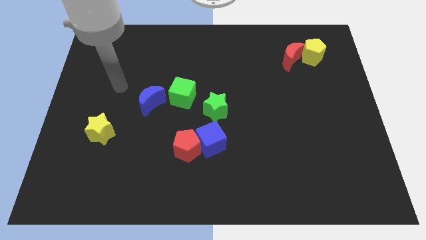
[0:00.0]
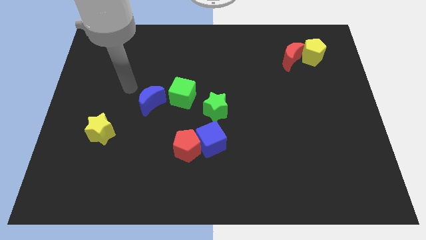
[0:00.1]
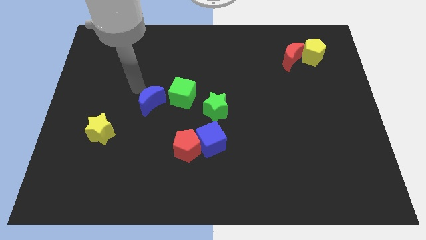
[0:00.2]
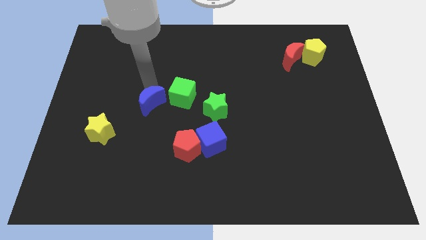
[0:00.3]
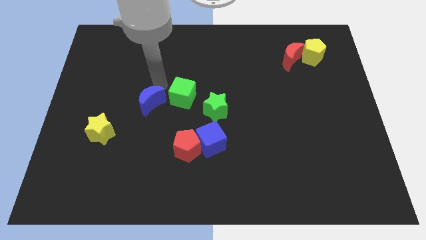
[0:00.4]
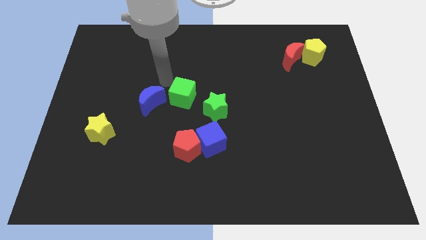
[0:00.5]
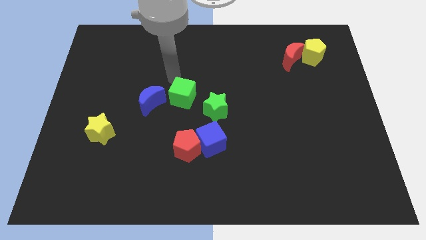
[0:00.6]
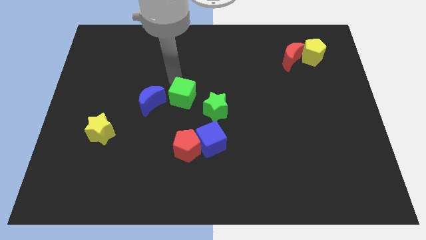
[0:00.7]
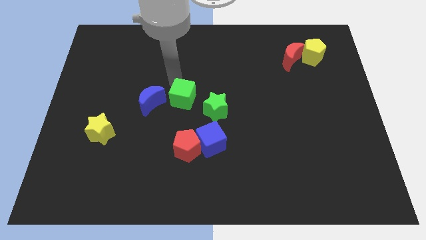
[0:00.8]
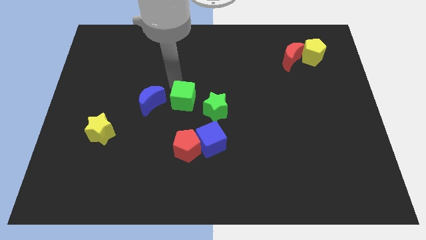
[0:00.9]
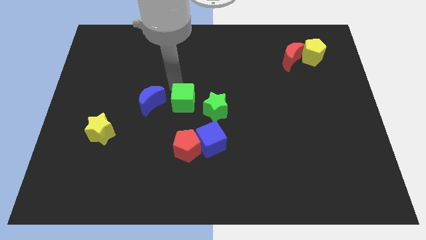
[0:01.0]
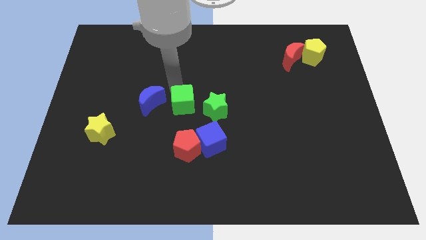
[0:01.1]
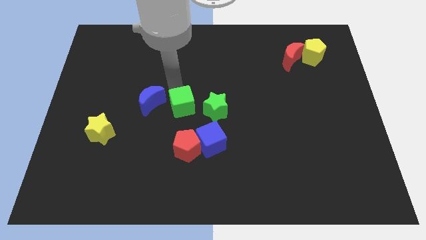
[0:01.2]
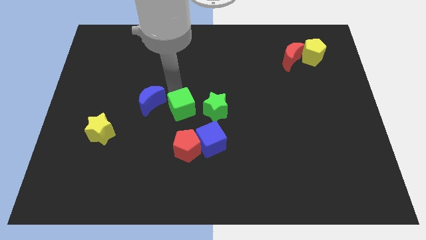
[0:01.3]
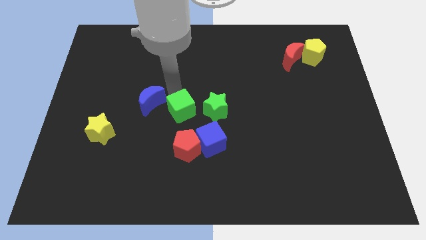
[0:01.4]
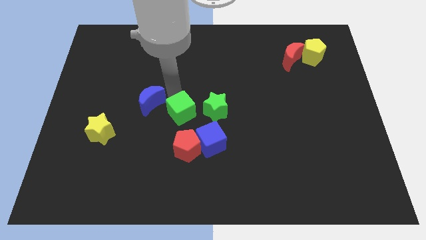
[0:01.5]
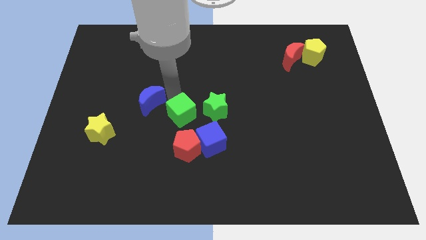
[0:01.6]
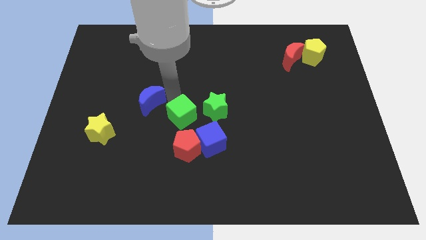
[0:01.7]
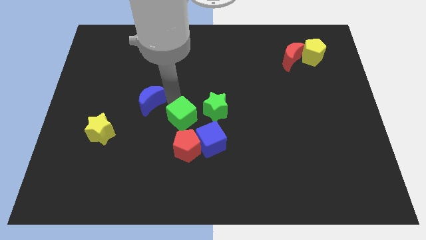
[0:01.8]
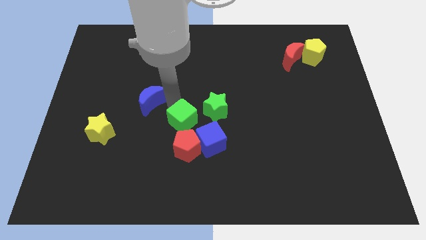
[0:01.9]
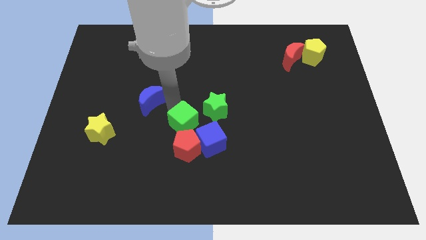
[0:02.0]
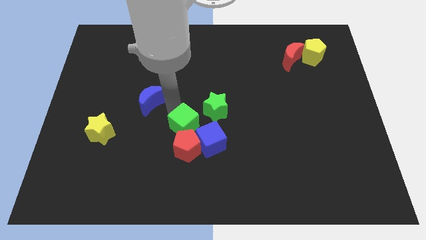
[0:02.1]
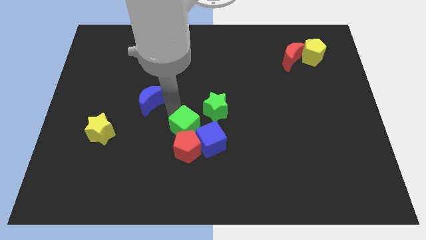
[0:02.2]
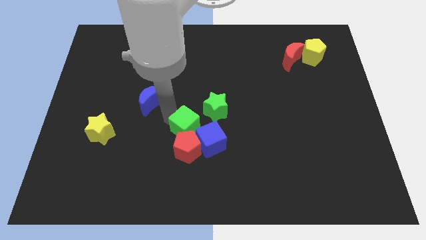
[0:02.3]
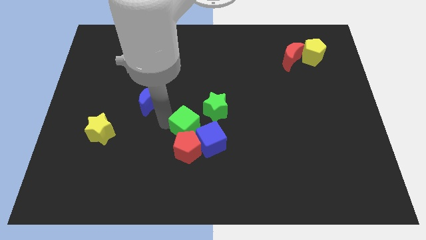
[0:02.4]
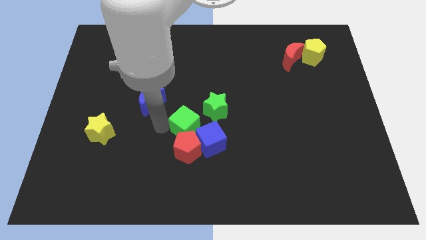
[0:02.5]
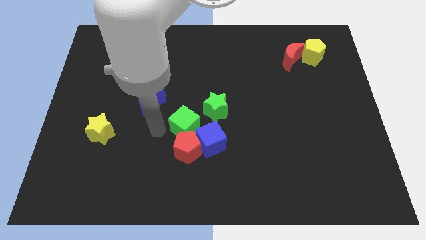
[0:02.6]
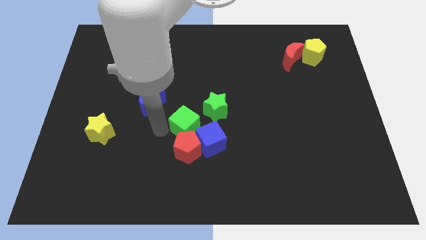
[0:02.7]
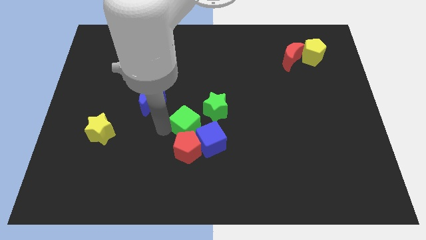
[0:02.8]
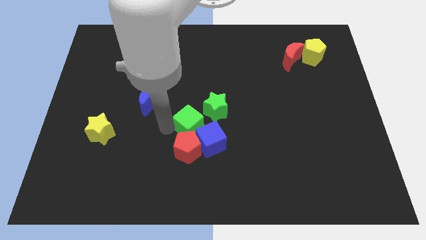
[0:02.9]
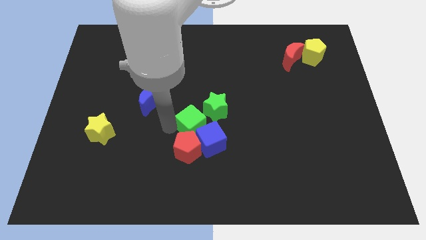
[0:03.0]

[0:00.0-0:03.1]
slide the green cube down and to the right diagonally a little

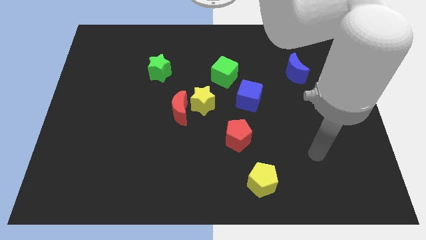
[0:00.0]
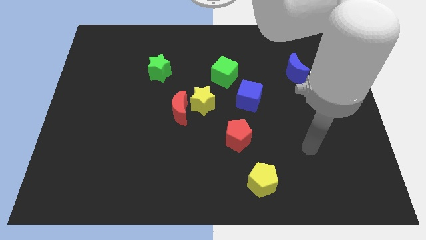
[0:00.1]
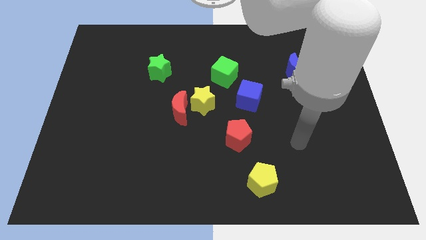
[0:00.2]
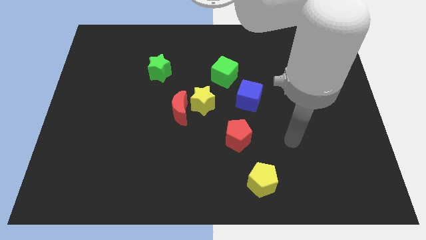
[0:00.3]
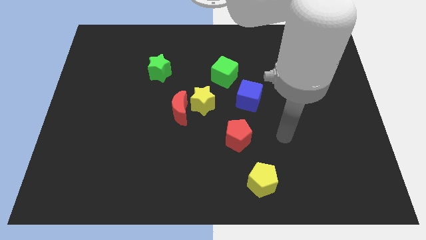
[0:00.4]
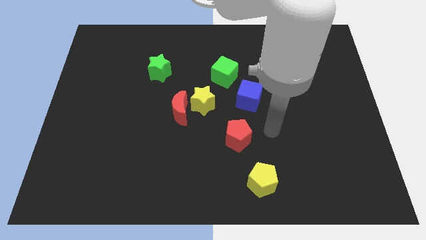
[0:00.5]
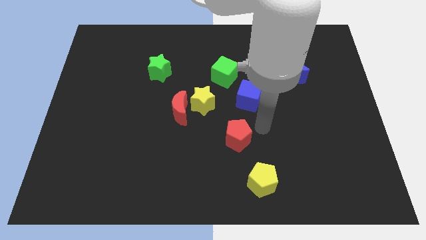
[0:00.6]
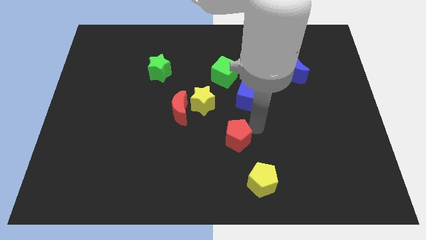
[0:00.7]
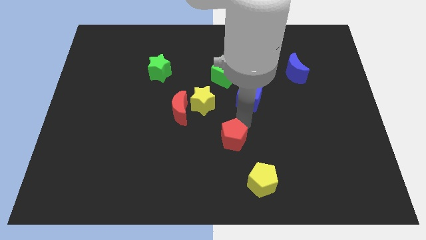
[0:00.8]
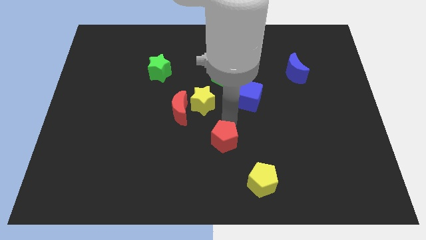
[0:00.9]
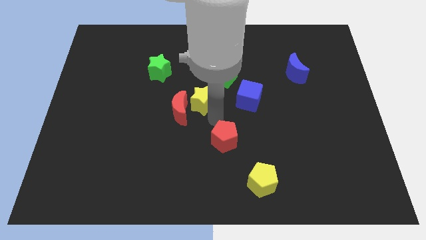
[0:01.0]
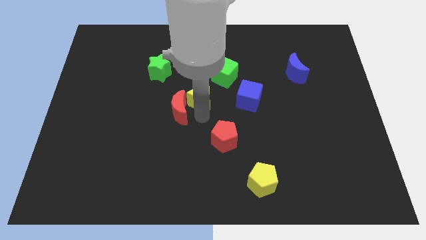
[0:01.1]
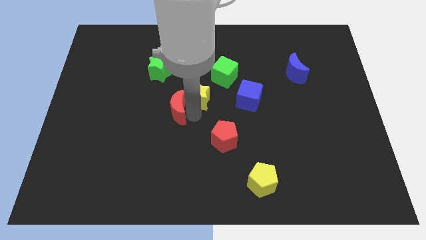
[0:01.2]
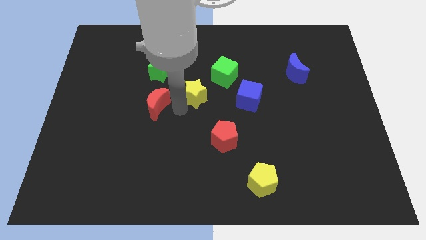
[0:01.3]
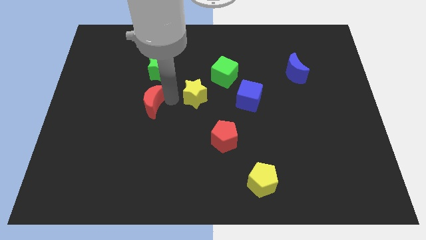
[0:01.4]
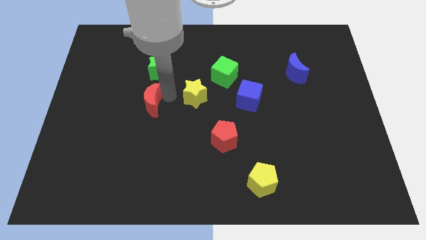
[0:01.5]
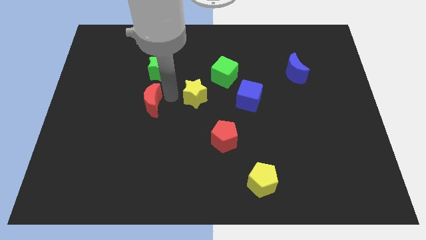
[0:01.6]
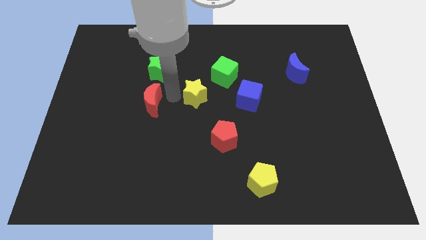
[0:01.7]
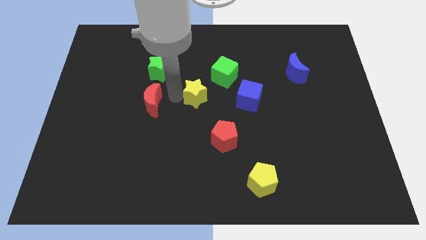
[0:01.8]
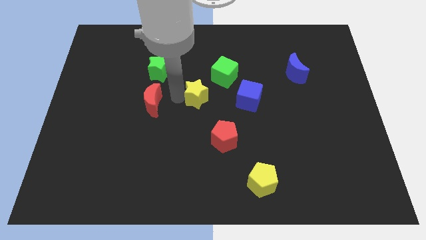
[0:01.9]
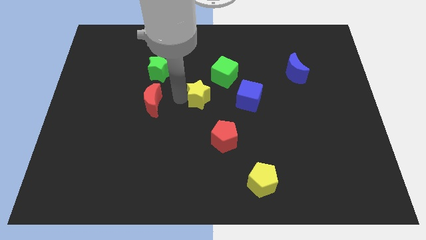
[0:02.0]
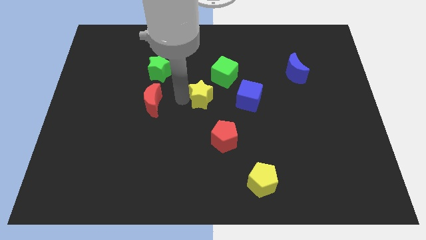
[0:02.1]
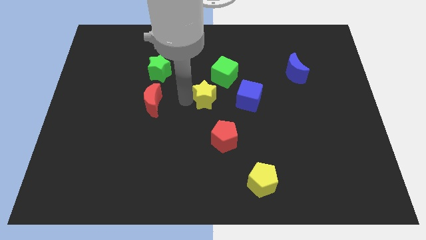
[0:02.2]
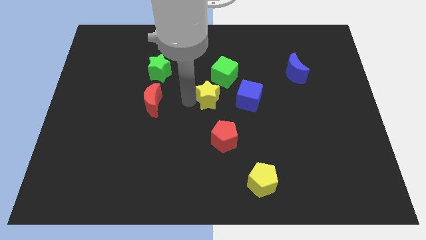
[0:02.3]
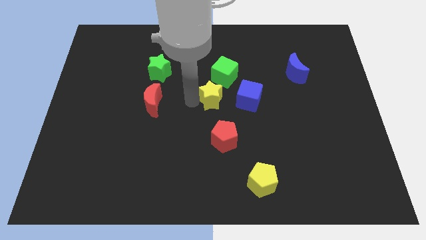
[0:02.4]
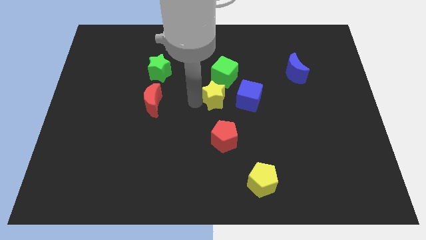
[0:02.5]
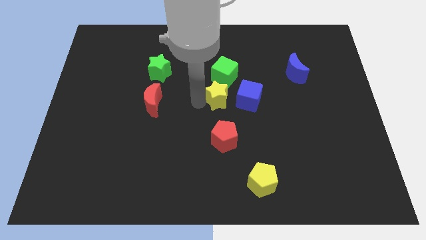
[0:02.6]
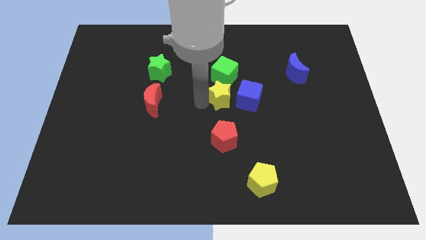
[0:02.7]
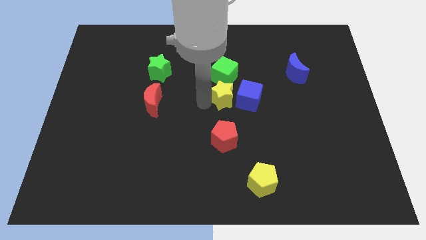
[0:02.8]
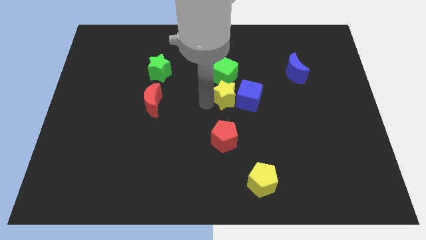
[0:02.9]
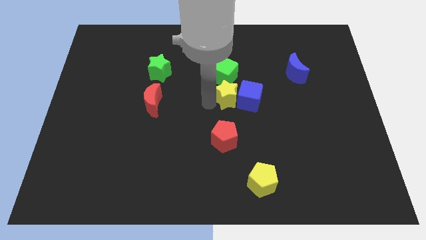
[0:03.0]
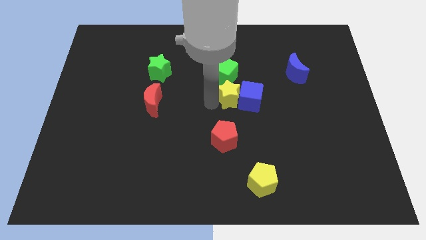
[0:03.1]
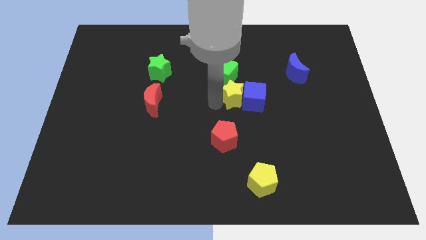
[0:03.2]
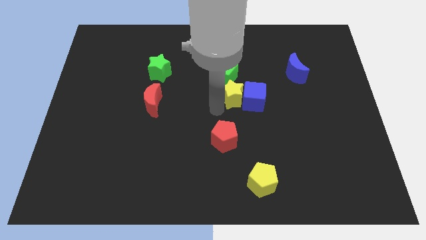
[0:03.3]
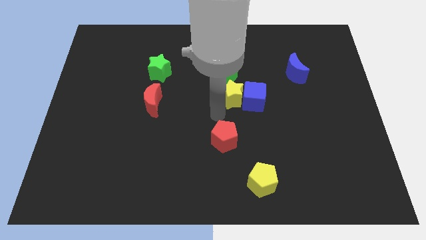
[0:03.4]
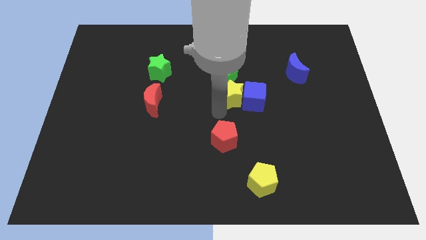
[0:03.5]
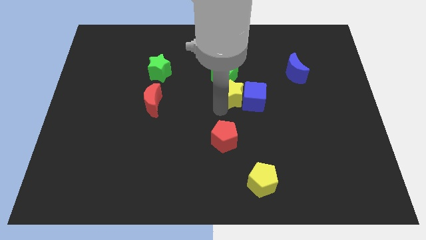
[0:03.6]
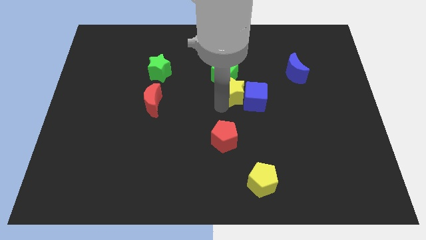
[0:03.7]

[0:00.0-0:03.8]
slide the yellow star diagonally upwards and right a bit

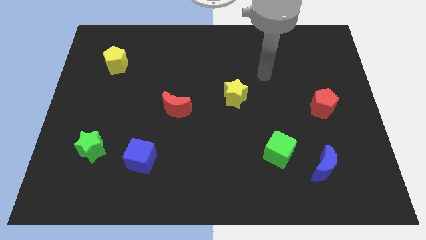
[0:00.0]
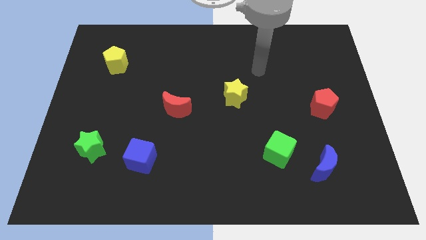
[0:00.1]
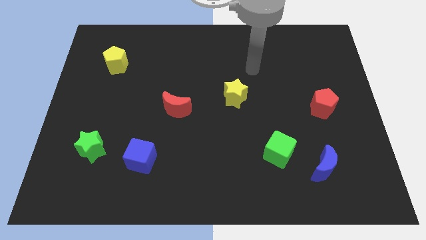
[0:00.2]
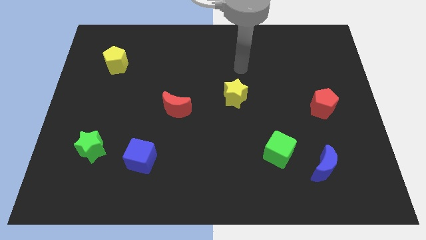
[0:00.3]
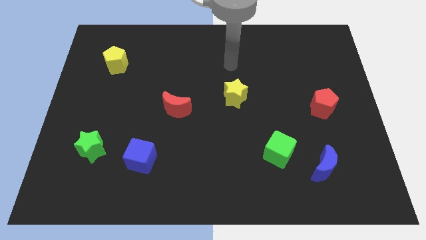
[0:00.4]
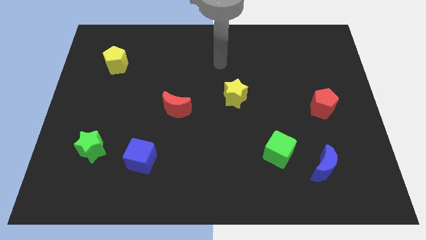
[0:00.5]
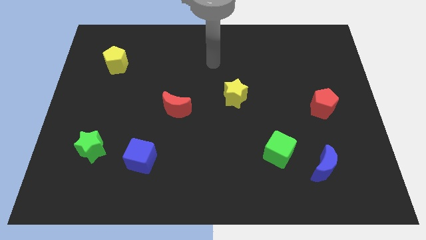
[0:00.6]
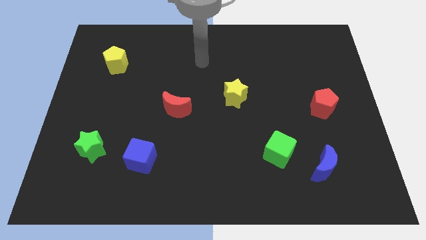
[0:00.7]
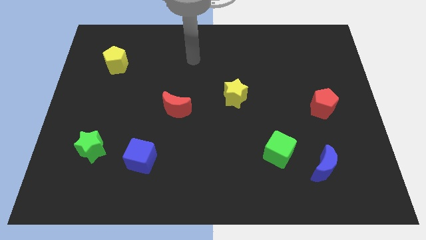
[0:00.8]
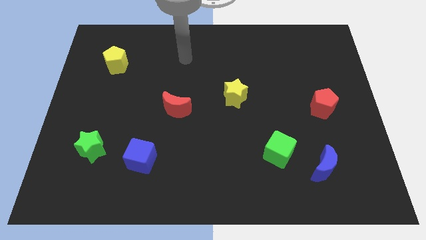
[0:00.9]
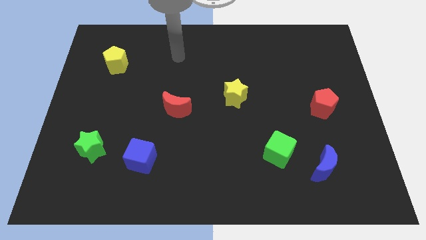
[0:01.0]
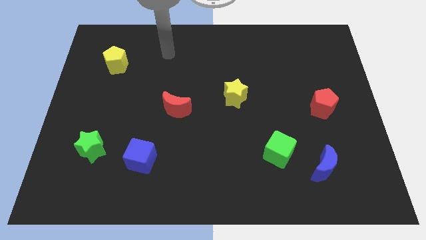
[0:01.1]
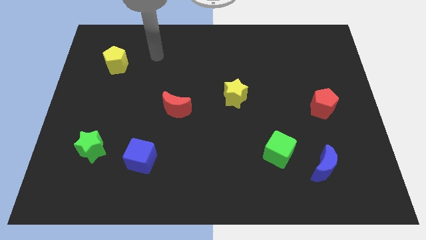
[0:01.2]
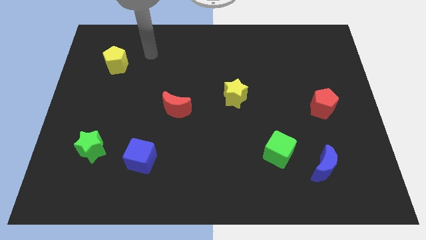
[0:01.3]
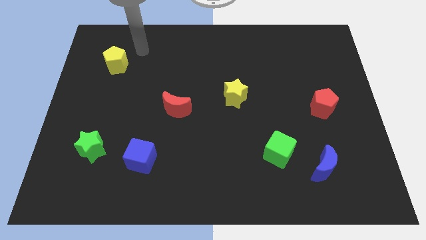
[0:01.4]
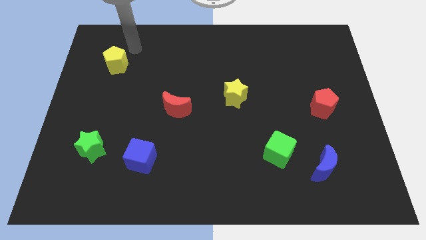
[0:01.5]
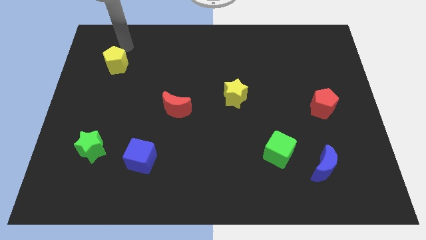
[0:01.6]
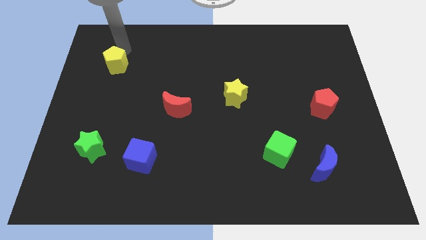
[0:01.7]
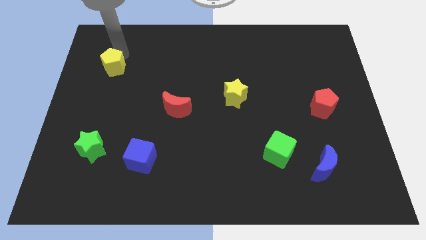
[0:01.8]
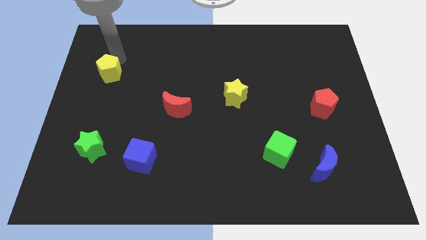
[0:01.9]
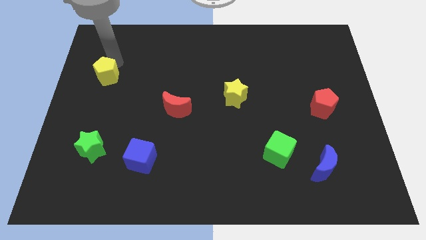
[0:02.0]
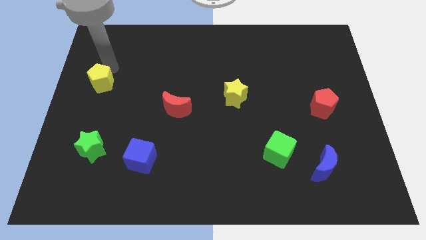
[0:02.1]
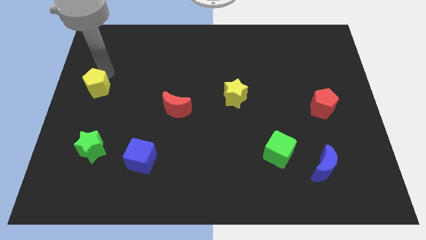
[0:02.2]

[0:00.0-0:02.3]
slightly move the yellow pentagon down
